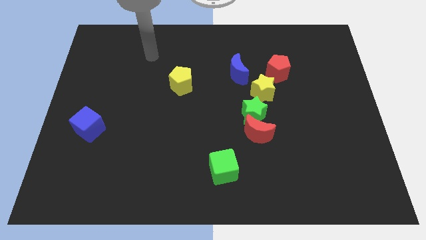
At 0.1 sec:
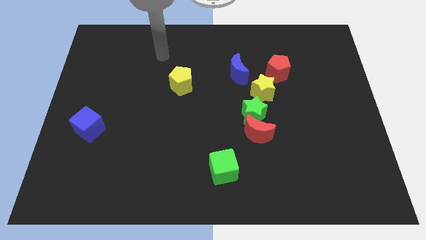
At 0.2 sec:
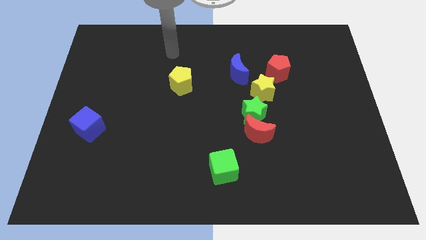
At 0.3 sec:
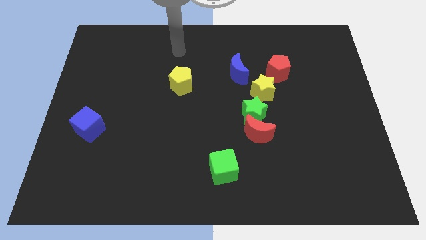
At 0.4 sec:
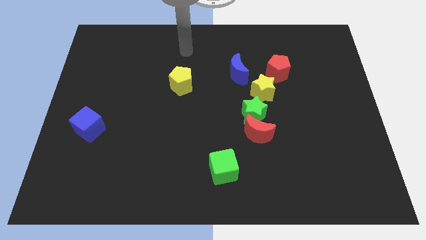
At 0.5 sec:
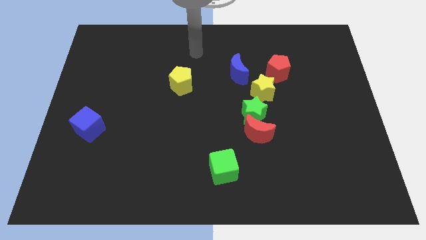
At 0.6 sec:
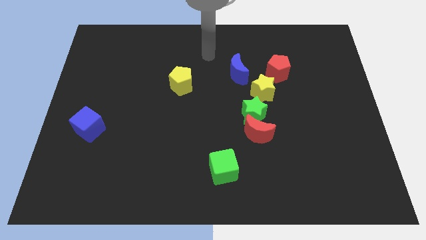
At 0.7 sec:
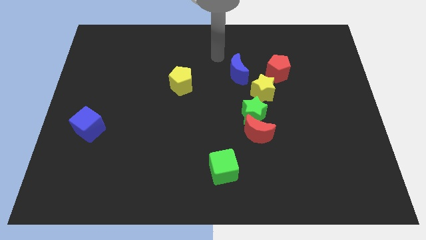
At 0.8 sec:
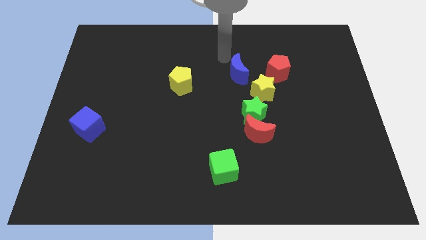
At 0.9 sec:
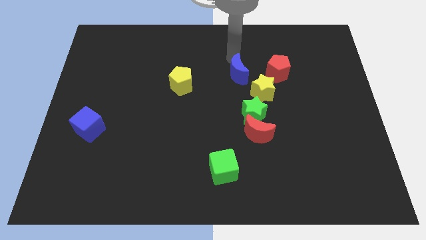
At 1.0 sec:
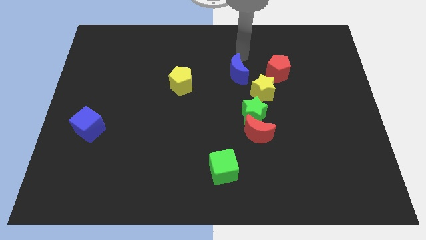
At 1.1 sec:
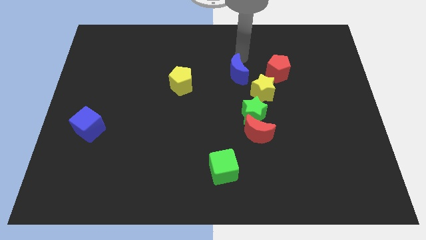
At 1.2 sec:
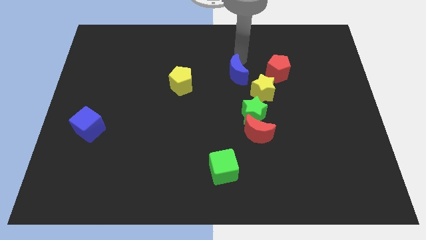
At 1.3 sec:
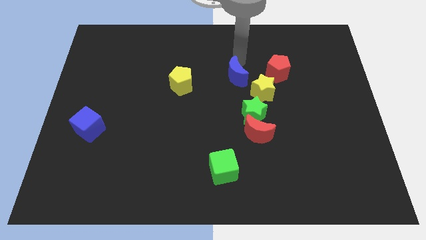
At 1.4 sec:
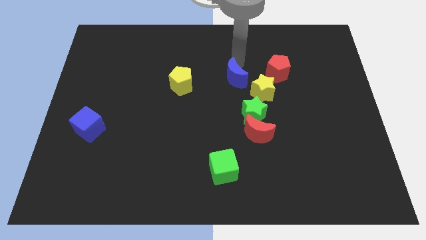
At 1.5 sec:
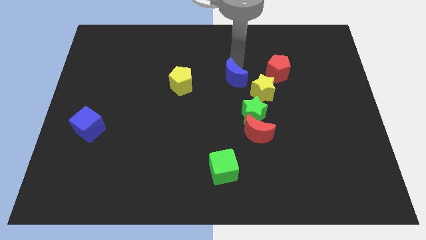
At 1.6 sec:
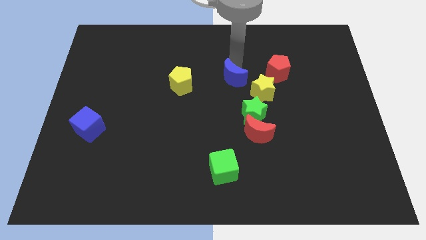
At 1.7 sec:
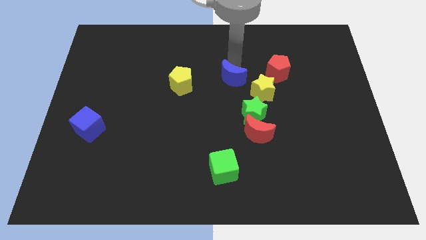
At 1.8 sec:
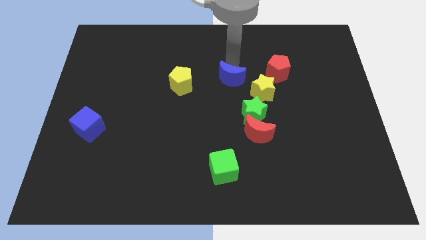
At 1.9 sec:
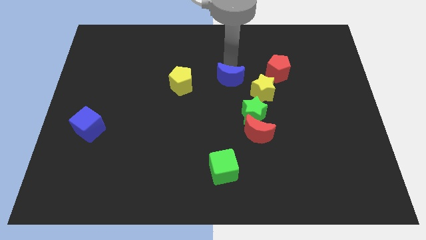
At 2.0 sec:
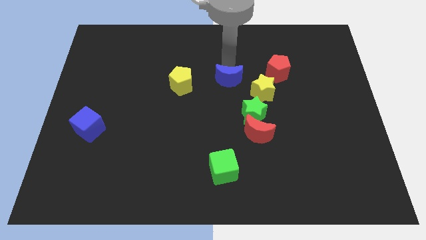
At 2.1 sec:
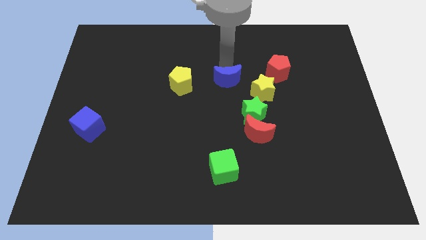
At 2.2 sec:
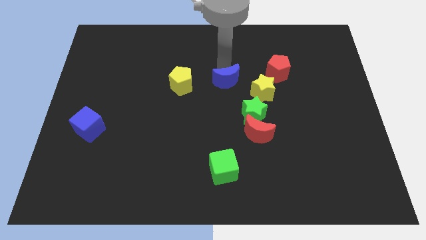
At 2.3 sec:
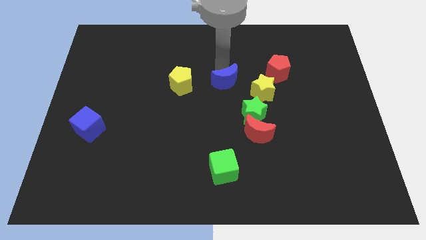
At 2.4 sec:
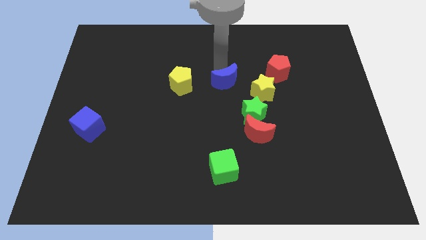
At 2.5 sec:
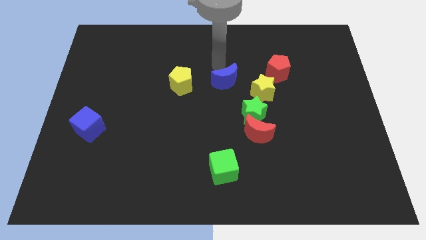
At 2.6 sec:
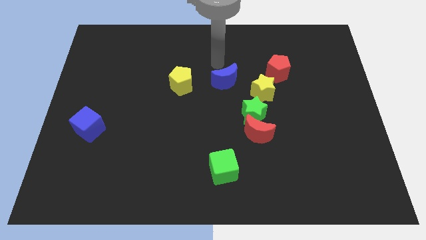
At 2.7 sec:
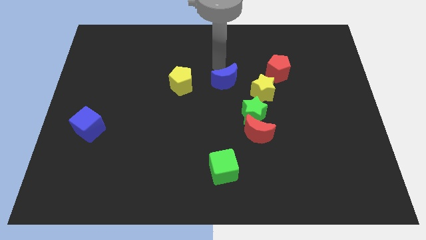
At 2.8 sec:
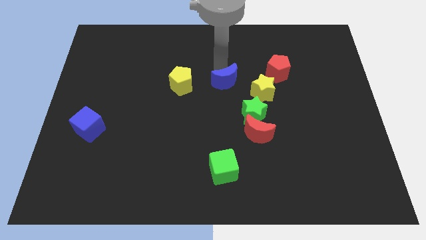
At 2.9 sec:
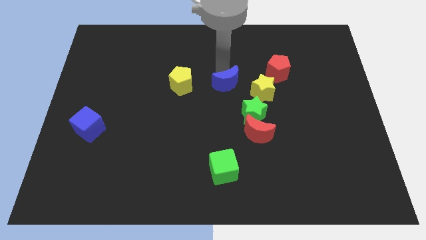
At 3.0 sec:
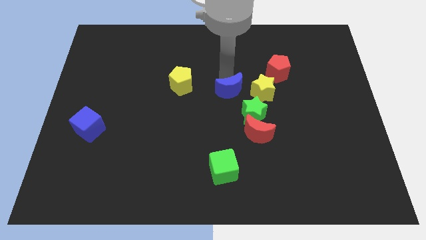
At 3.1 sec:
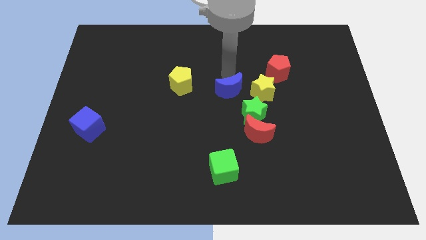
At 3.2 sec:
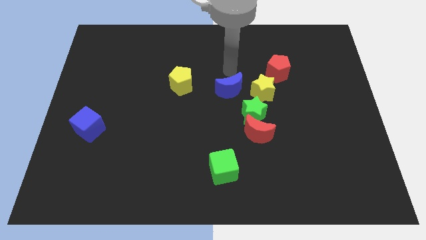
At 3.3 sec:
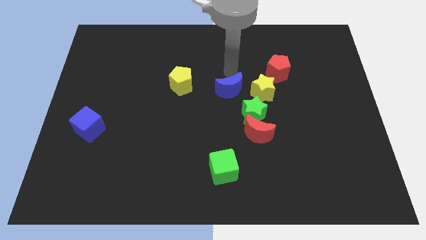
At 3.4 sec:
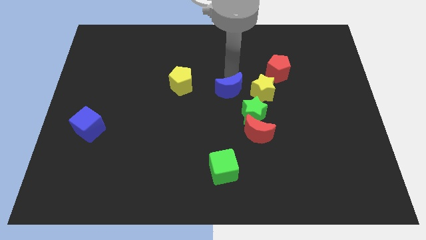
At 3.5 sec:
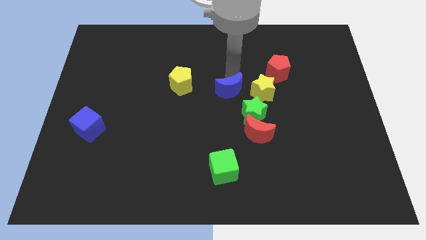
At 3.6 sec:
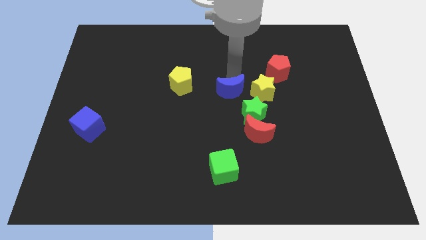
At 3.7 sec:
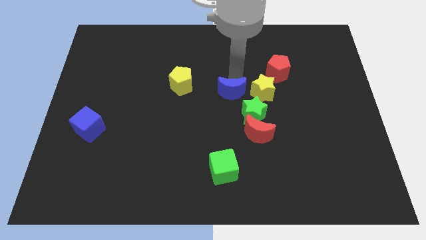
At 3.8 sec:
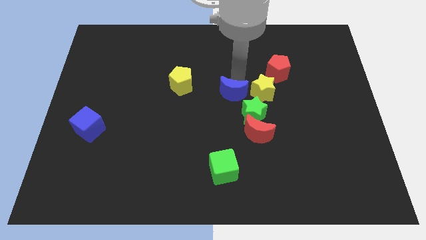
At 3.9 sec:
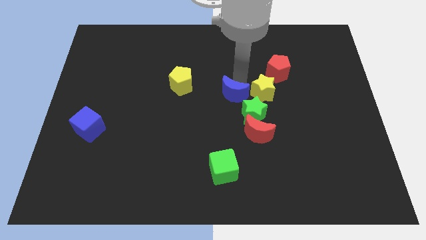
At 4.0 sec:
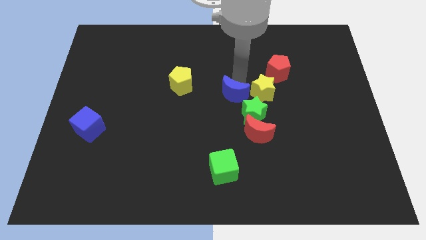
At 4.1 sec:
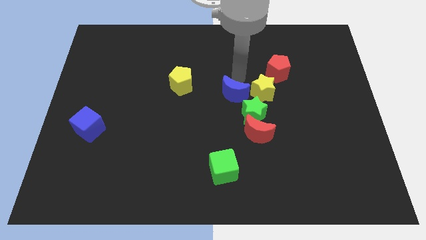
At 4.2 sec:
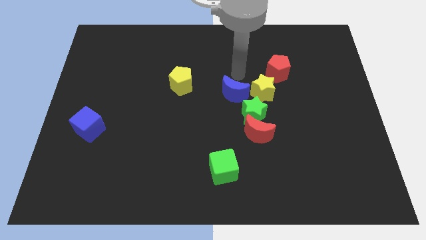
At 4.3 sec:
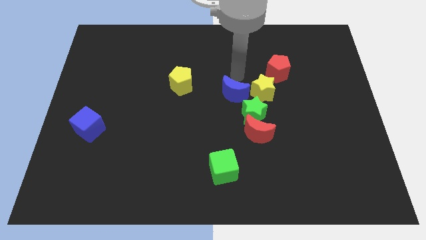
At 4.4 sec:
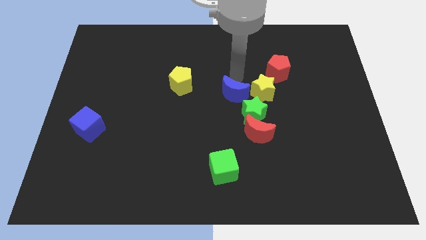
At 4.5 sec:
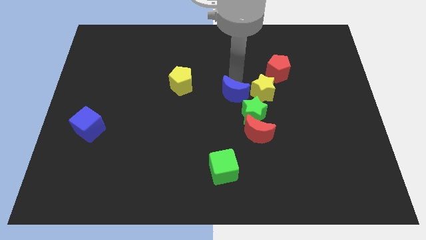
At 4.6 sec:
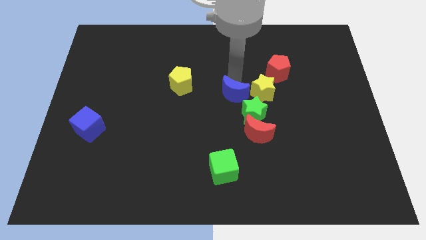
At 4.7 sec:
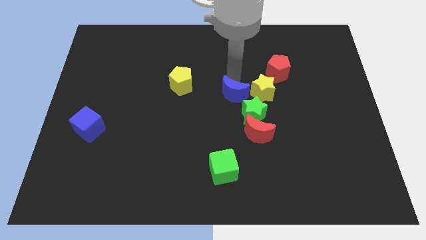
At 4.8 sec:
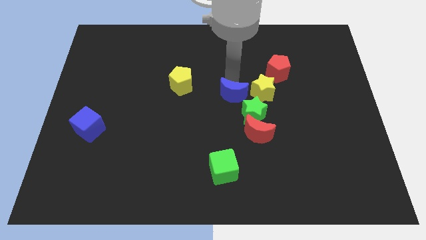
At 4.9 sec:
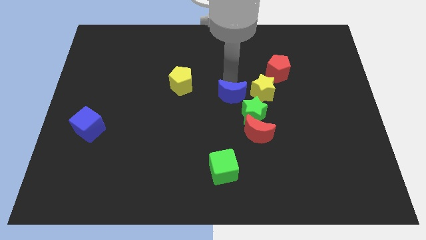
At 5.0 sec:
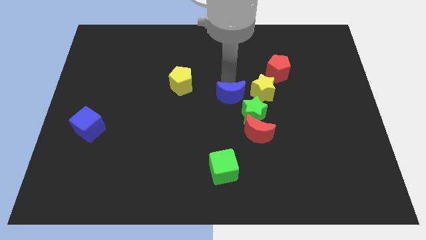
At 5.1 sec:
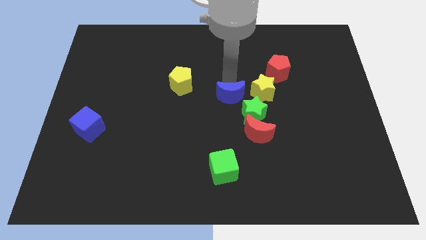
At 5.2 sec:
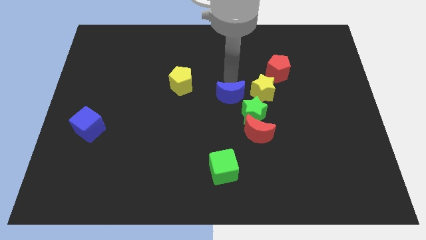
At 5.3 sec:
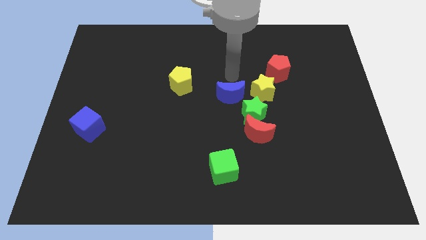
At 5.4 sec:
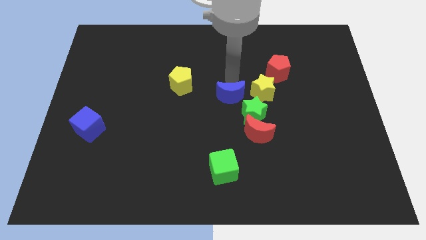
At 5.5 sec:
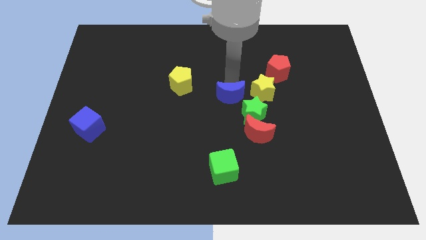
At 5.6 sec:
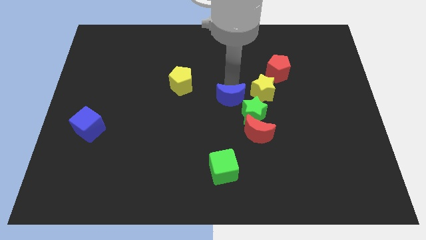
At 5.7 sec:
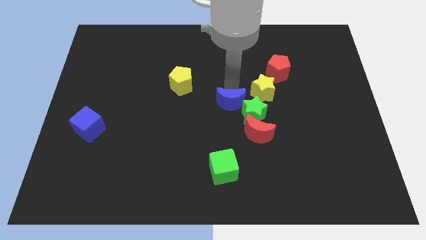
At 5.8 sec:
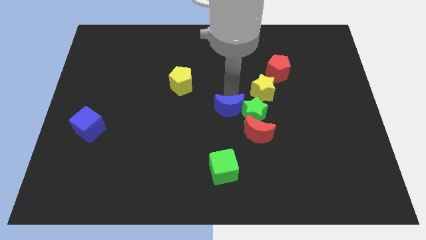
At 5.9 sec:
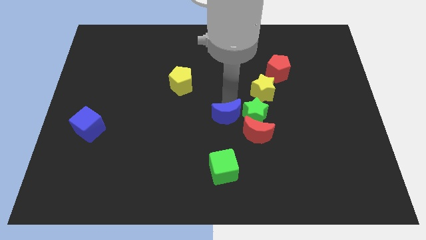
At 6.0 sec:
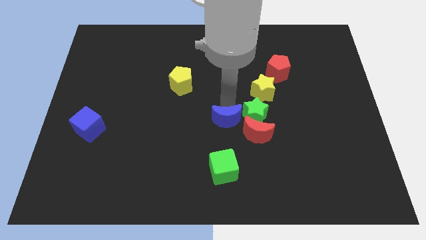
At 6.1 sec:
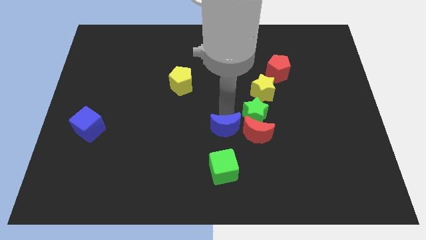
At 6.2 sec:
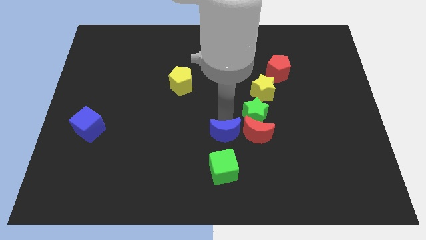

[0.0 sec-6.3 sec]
slide the blue moon diagonally down and to the left of the red moon

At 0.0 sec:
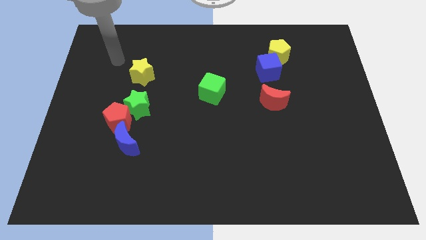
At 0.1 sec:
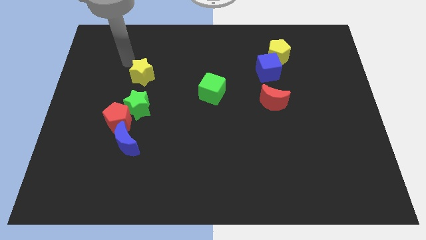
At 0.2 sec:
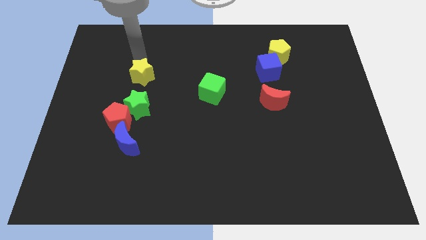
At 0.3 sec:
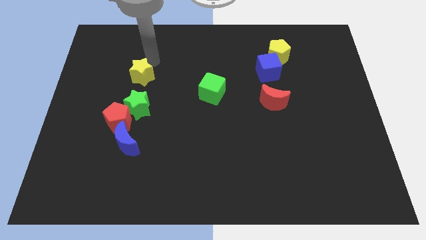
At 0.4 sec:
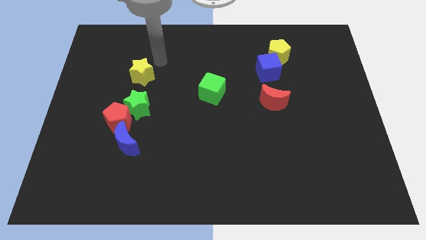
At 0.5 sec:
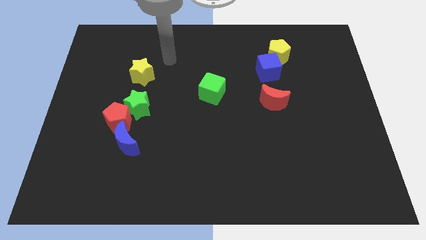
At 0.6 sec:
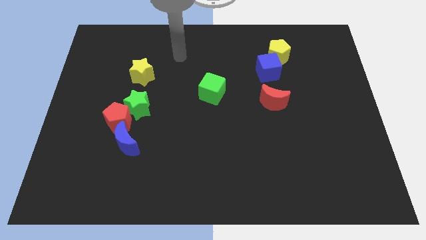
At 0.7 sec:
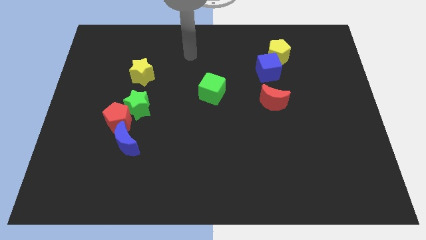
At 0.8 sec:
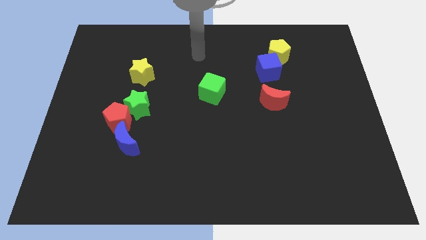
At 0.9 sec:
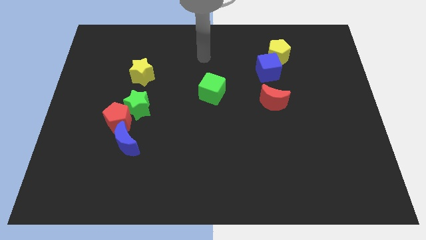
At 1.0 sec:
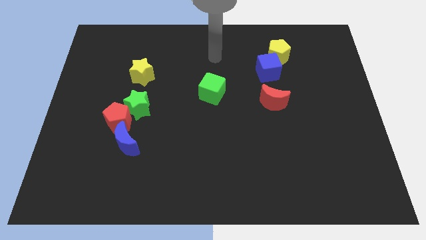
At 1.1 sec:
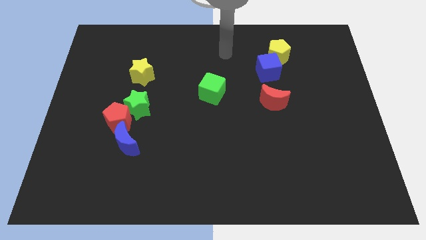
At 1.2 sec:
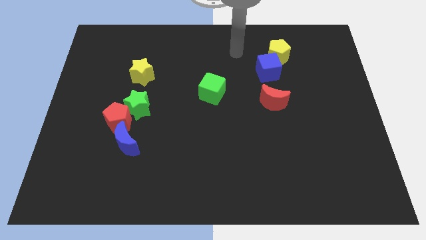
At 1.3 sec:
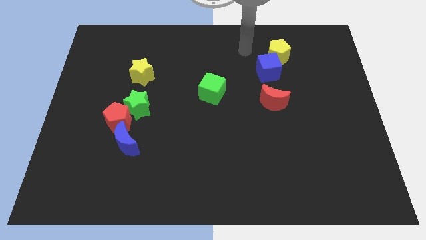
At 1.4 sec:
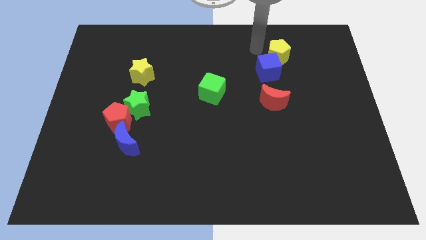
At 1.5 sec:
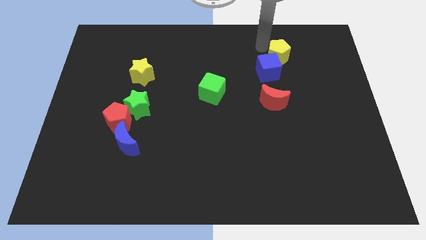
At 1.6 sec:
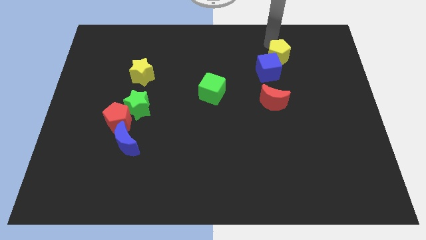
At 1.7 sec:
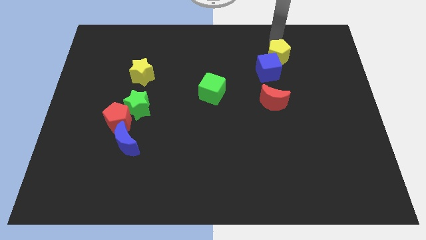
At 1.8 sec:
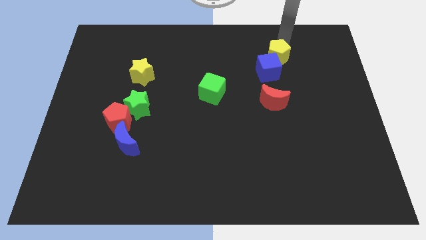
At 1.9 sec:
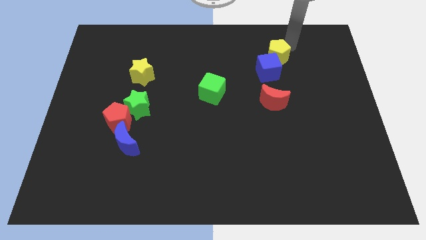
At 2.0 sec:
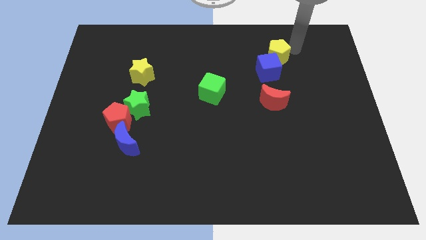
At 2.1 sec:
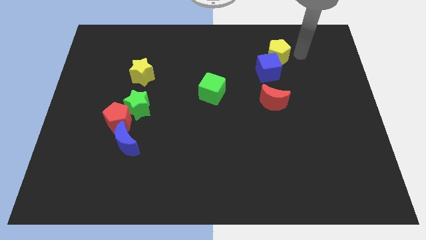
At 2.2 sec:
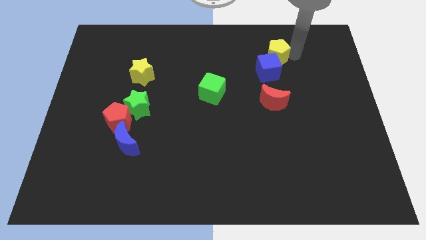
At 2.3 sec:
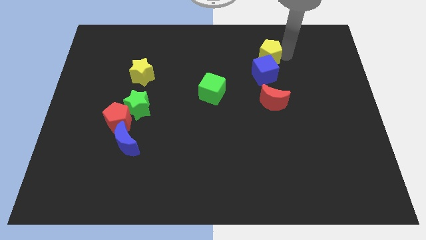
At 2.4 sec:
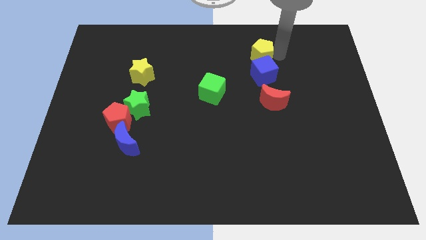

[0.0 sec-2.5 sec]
move the yellow pentagon to the top left side of the blue cube
